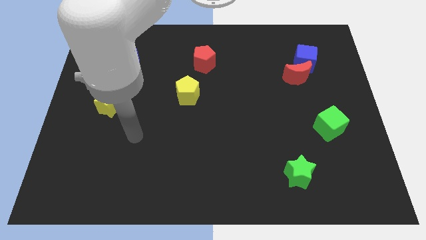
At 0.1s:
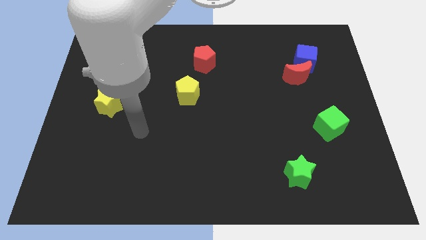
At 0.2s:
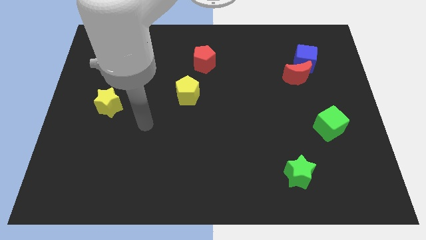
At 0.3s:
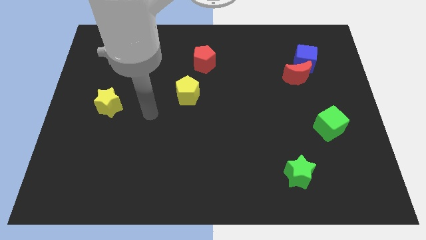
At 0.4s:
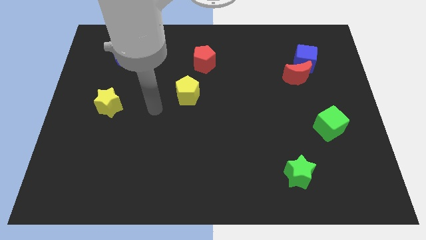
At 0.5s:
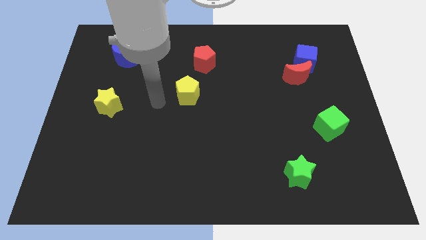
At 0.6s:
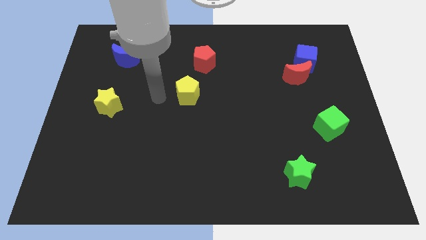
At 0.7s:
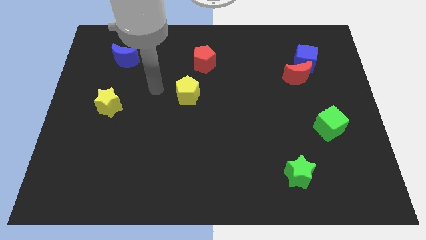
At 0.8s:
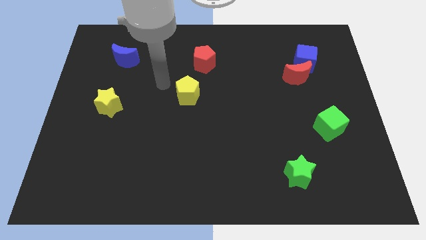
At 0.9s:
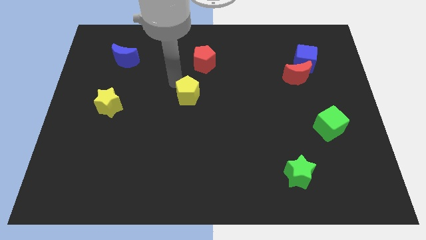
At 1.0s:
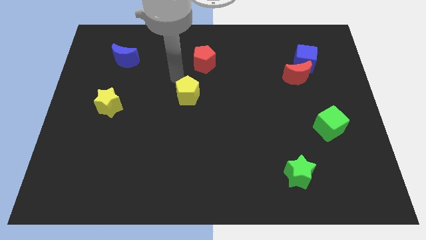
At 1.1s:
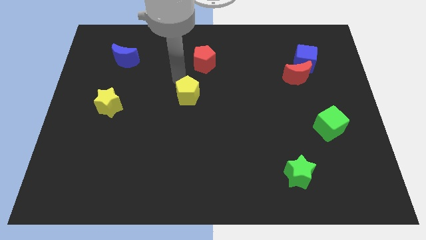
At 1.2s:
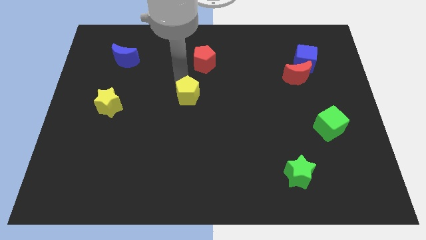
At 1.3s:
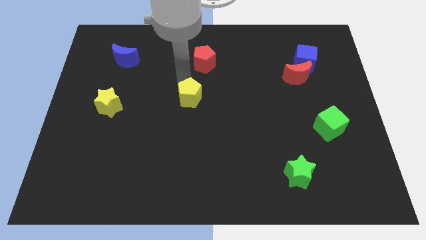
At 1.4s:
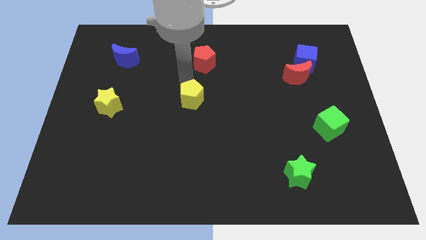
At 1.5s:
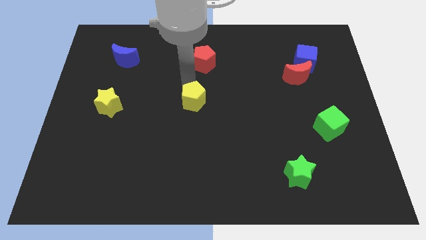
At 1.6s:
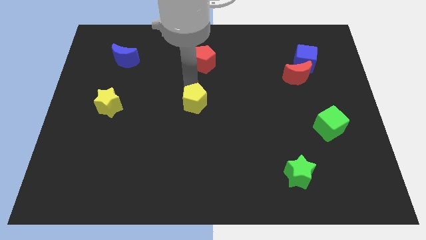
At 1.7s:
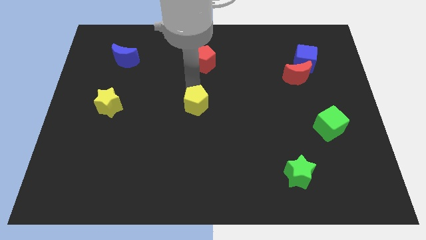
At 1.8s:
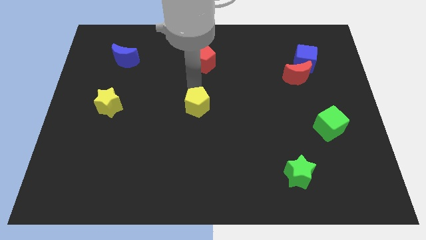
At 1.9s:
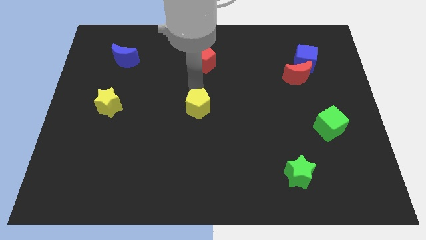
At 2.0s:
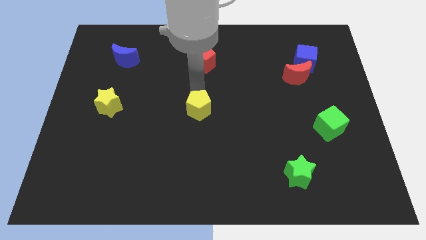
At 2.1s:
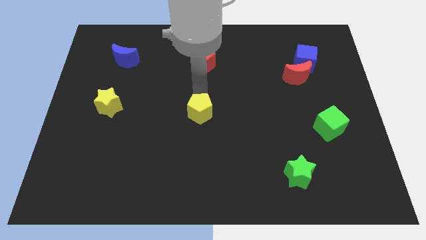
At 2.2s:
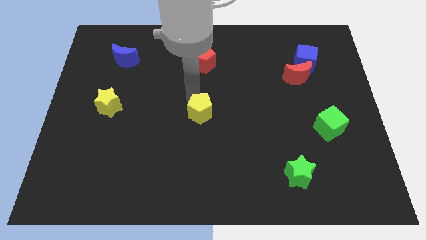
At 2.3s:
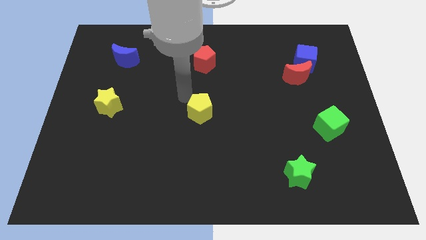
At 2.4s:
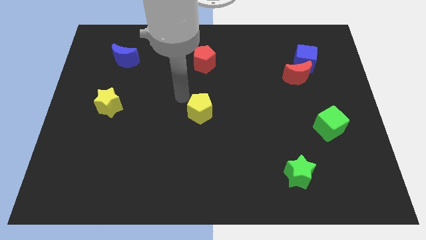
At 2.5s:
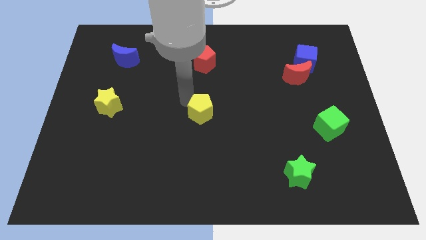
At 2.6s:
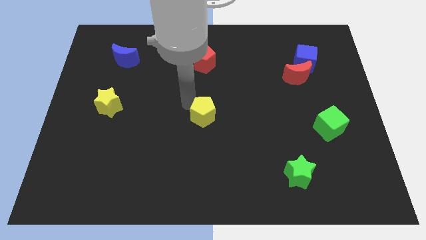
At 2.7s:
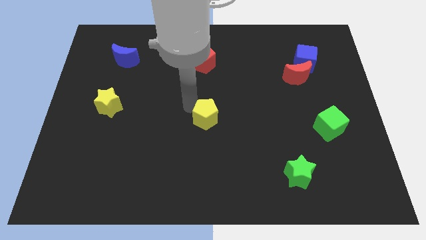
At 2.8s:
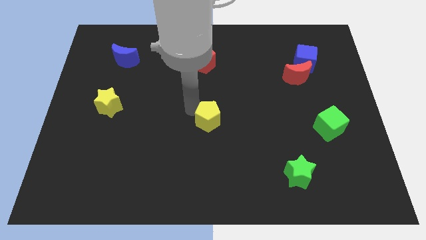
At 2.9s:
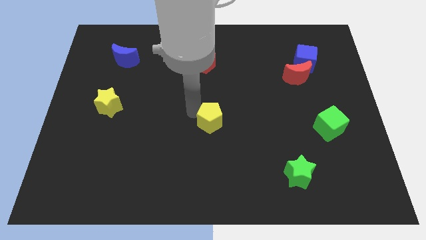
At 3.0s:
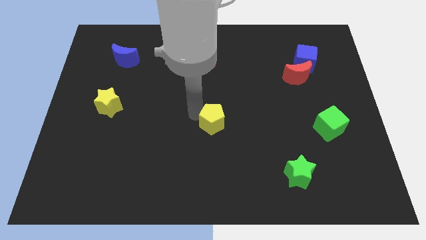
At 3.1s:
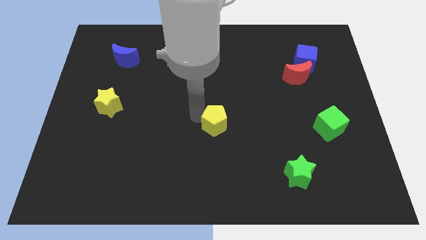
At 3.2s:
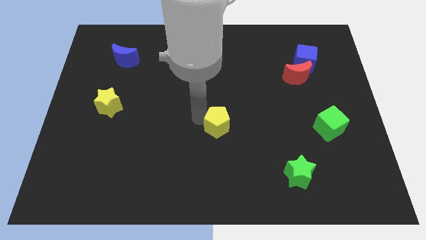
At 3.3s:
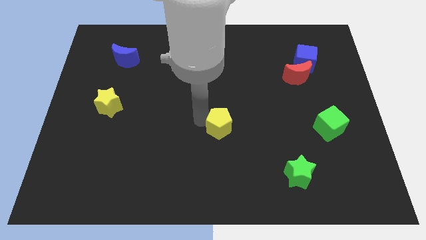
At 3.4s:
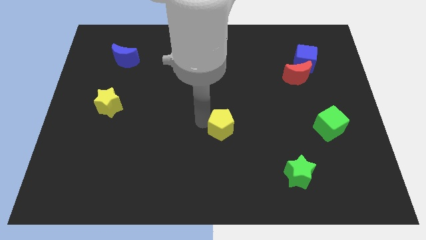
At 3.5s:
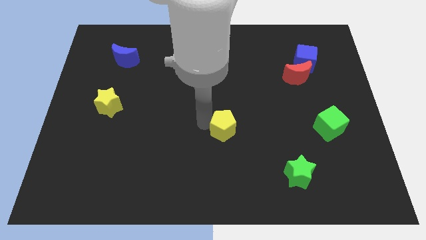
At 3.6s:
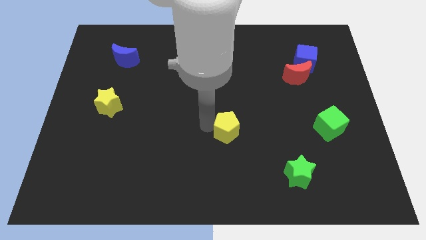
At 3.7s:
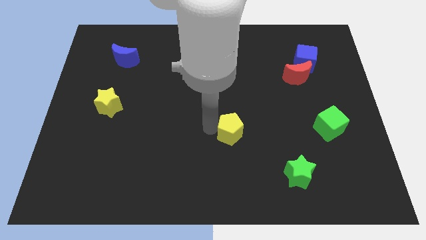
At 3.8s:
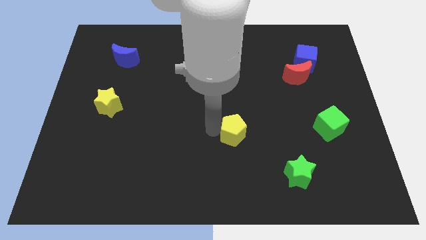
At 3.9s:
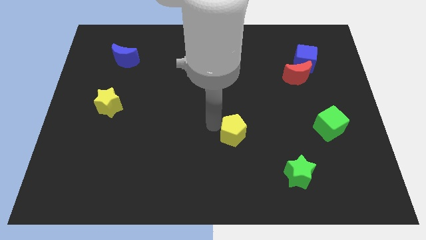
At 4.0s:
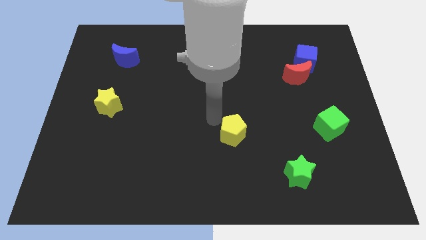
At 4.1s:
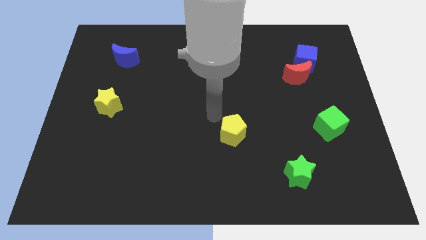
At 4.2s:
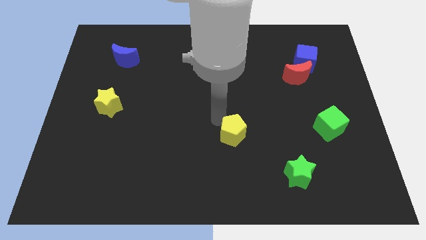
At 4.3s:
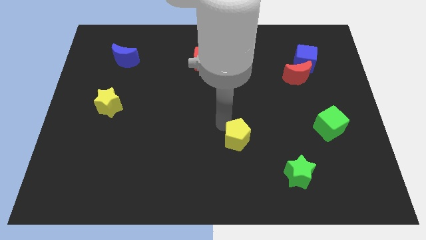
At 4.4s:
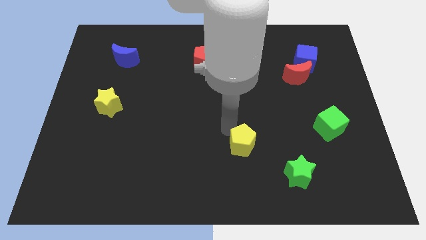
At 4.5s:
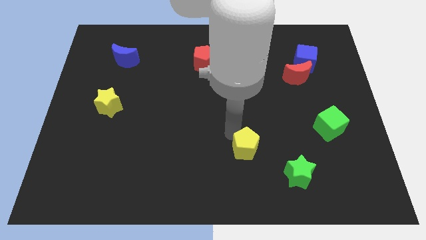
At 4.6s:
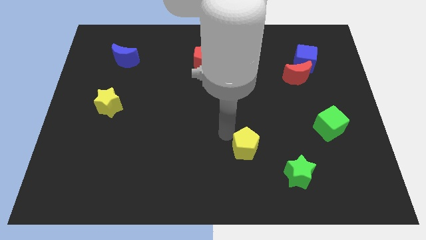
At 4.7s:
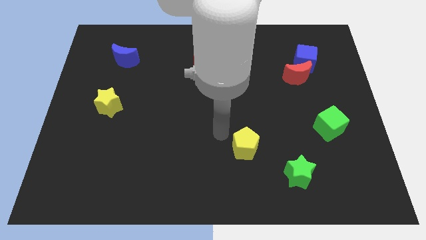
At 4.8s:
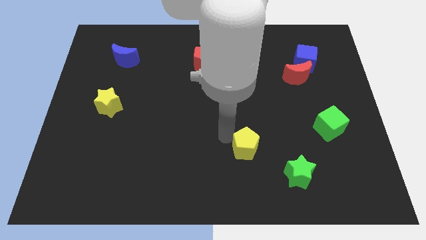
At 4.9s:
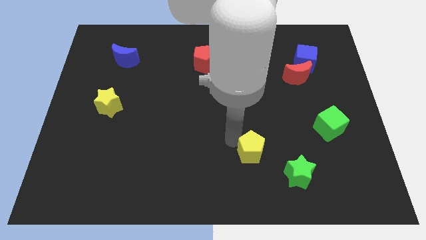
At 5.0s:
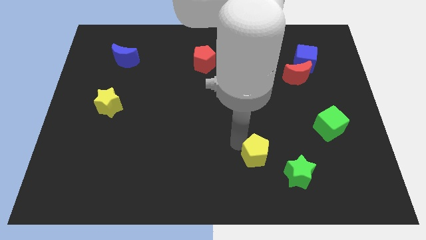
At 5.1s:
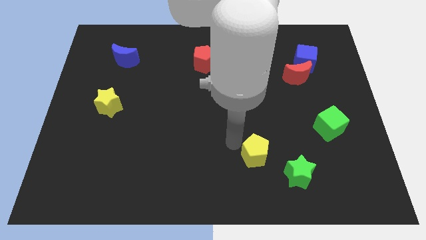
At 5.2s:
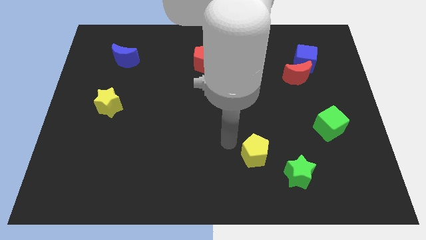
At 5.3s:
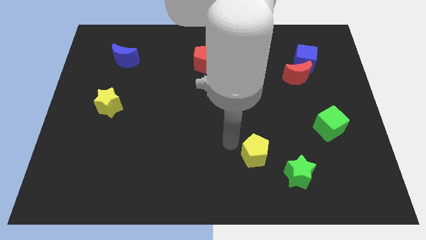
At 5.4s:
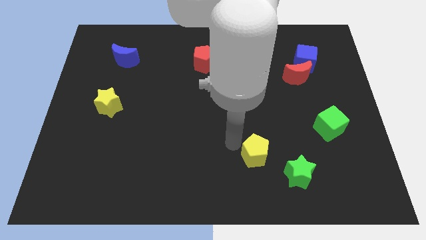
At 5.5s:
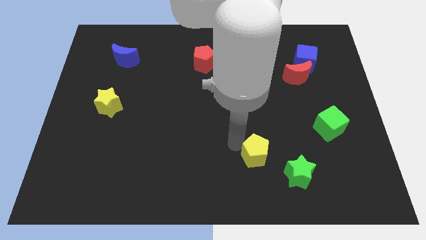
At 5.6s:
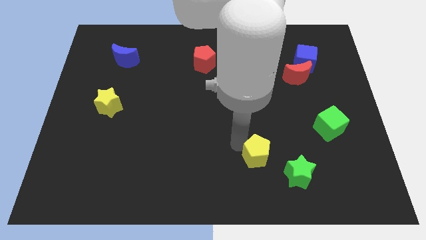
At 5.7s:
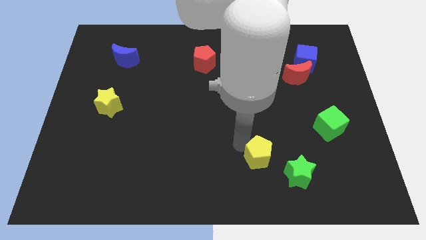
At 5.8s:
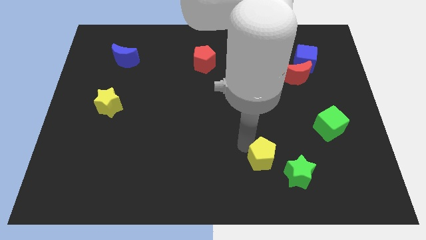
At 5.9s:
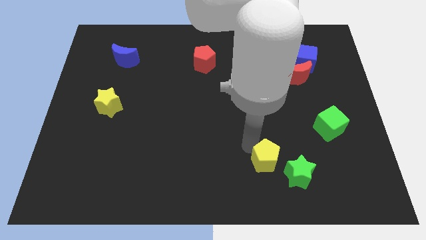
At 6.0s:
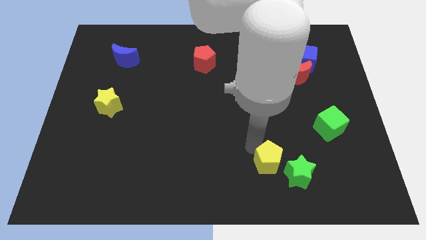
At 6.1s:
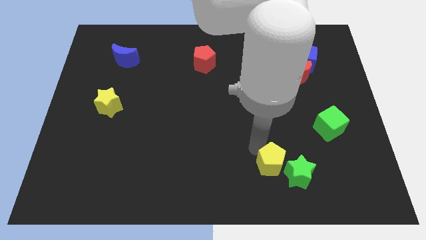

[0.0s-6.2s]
slide the yellow pentagon to the green star
